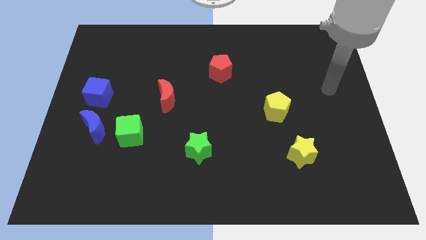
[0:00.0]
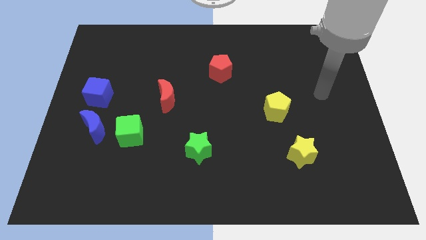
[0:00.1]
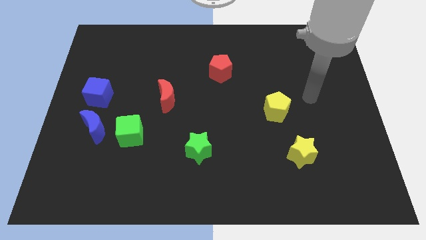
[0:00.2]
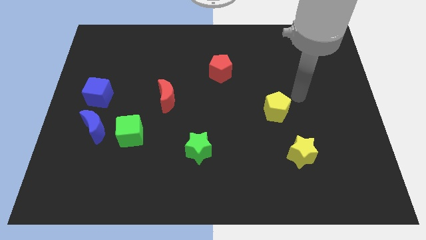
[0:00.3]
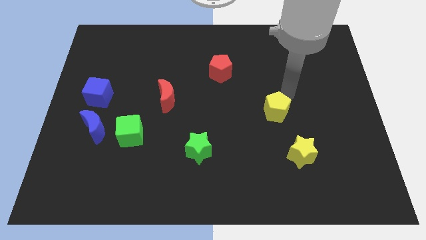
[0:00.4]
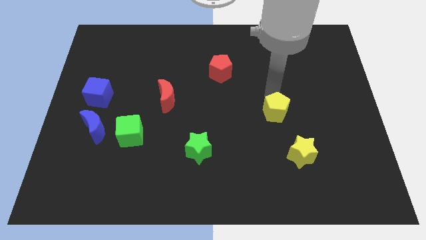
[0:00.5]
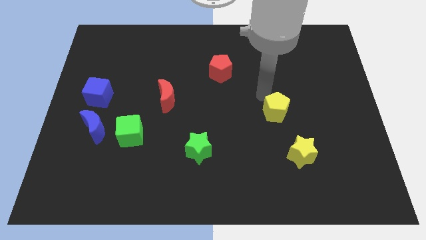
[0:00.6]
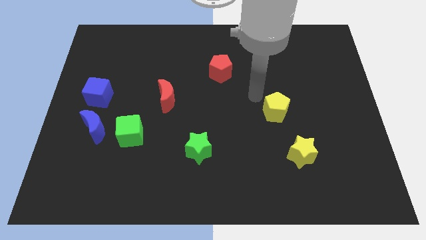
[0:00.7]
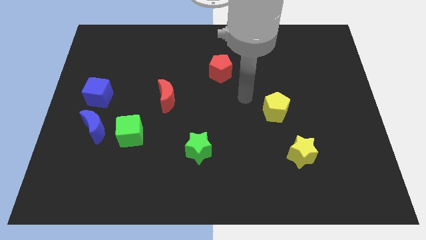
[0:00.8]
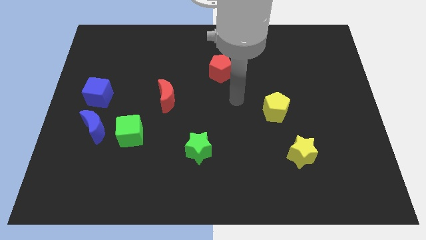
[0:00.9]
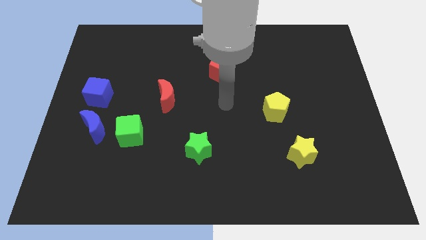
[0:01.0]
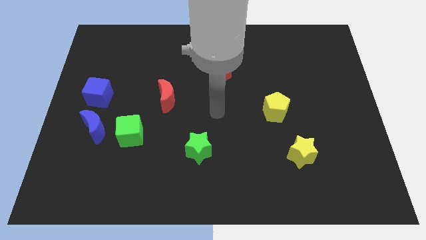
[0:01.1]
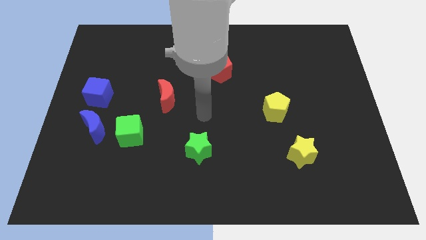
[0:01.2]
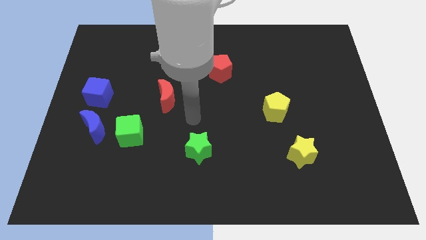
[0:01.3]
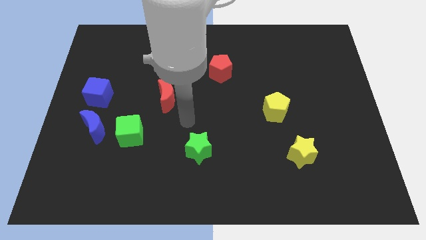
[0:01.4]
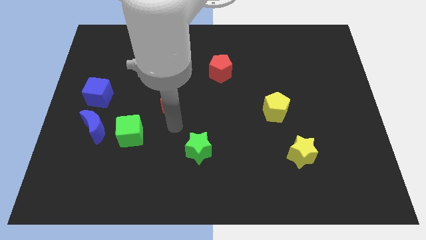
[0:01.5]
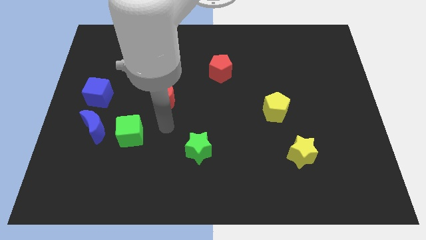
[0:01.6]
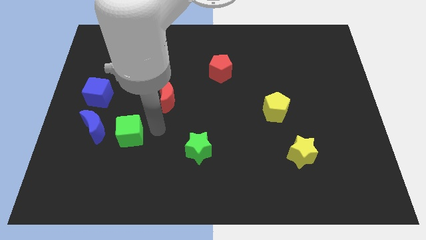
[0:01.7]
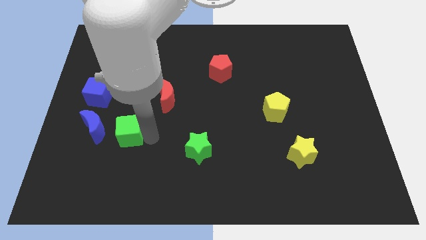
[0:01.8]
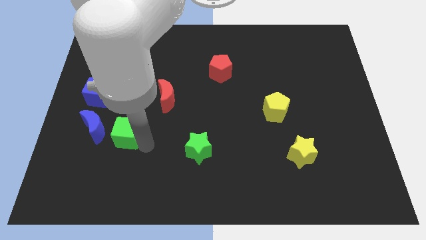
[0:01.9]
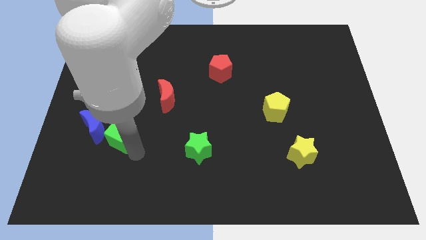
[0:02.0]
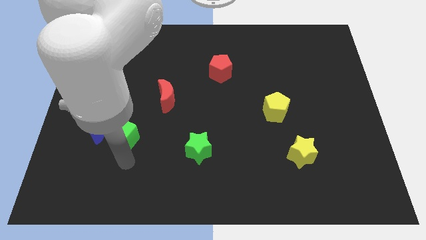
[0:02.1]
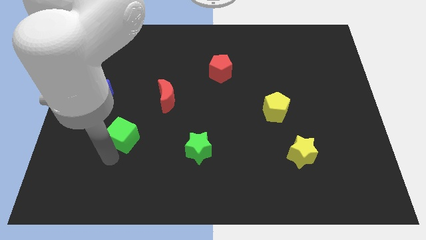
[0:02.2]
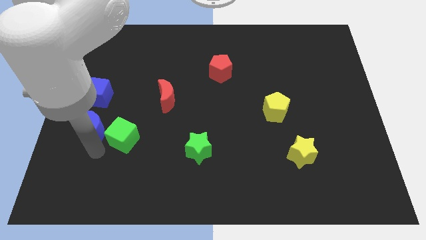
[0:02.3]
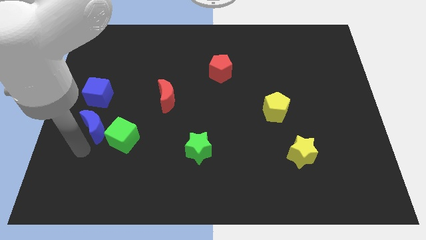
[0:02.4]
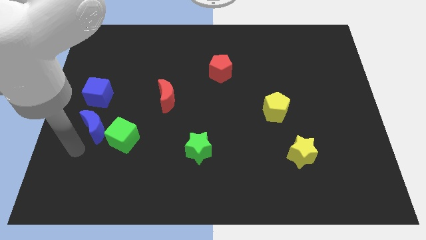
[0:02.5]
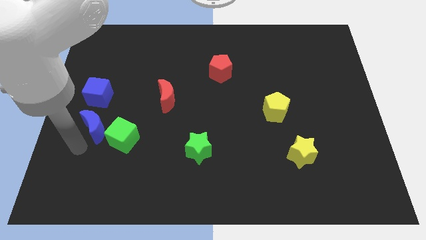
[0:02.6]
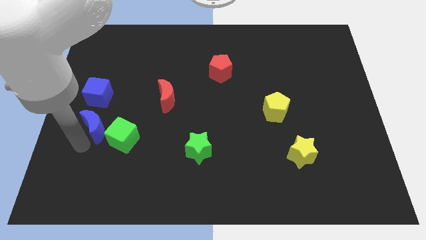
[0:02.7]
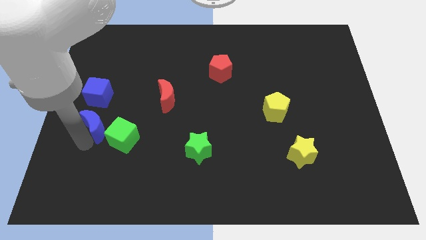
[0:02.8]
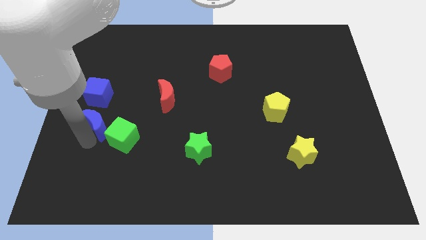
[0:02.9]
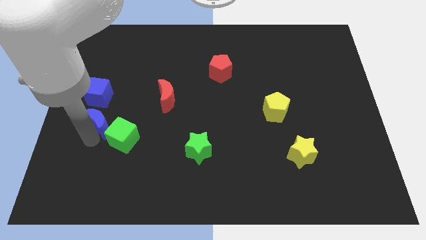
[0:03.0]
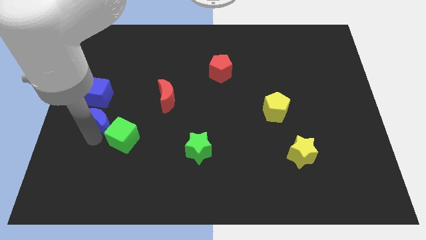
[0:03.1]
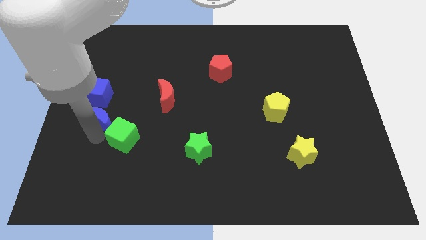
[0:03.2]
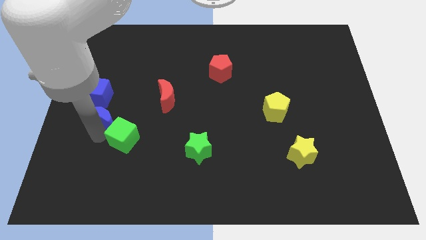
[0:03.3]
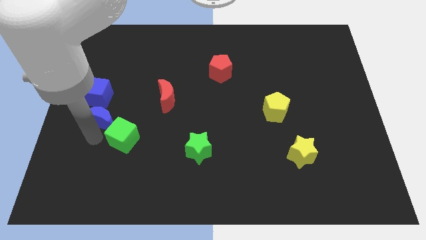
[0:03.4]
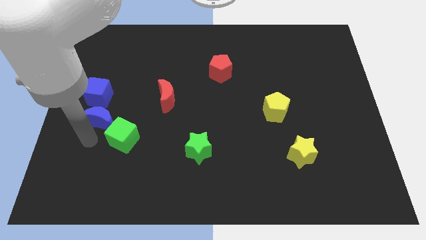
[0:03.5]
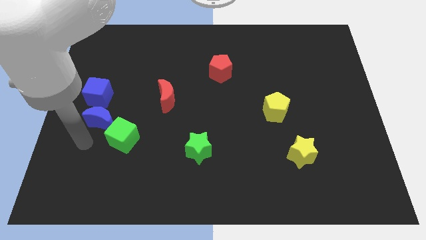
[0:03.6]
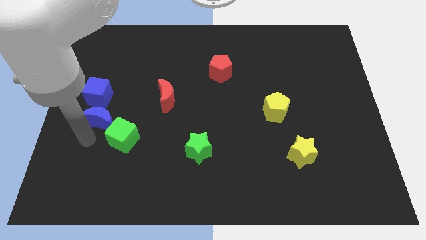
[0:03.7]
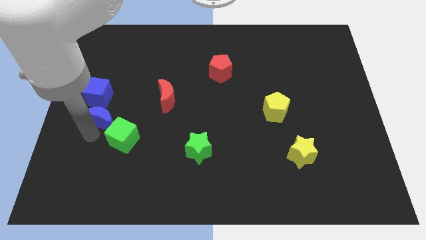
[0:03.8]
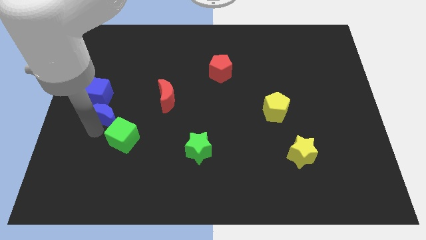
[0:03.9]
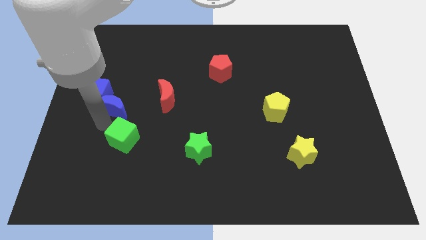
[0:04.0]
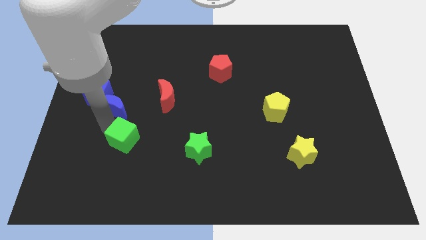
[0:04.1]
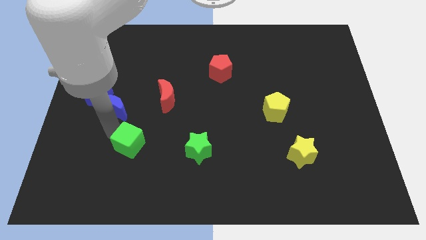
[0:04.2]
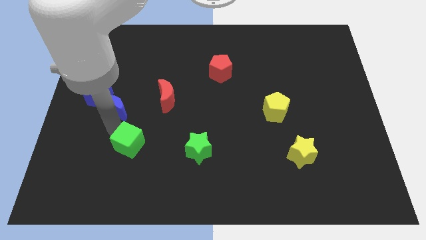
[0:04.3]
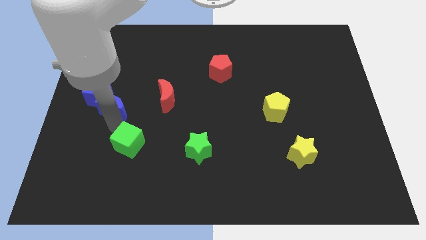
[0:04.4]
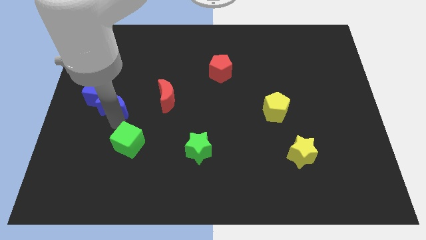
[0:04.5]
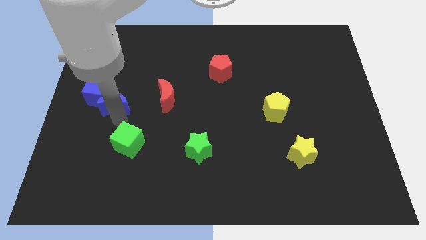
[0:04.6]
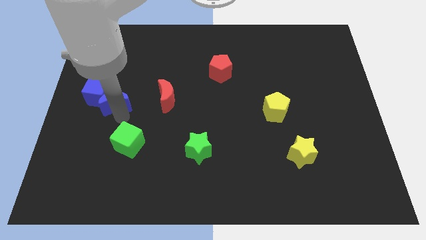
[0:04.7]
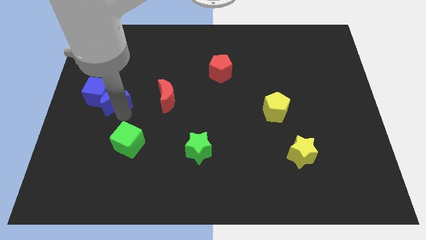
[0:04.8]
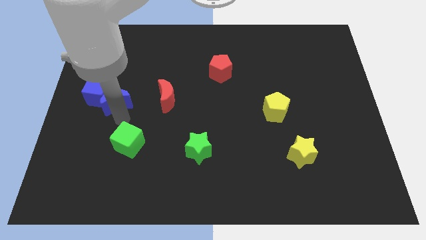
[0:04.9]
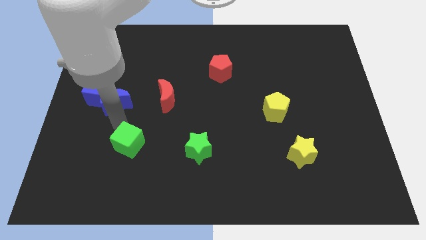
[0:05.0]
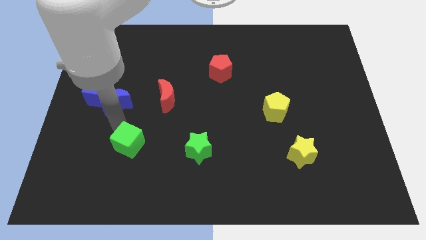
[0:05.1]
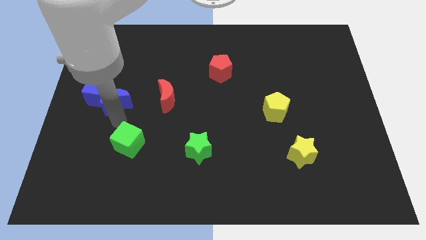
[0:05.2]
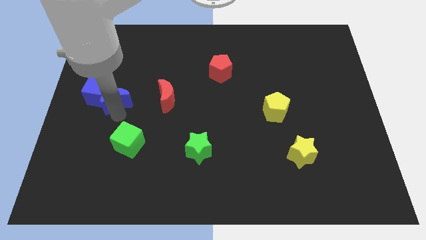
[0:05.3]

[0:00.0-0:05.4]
slightly slide the blue moon upwards

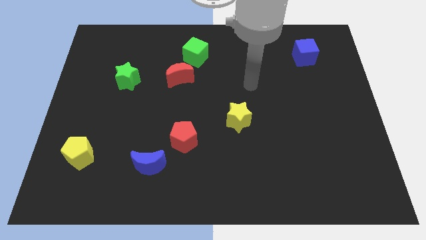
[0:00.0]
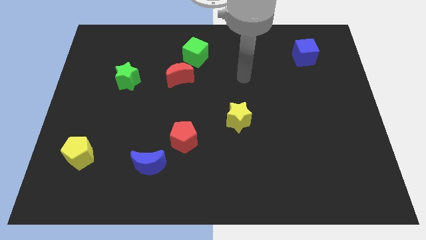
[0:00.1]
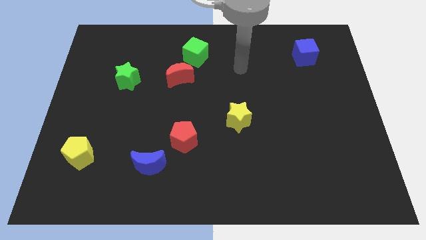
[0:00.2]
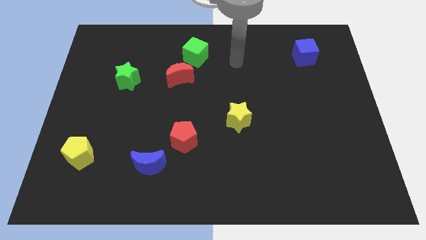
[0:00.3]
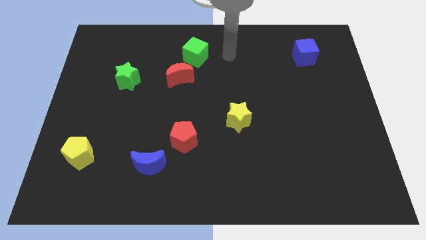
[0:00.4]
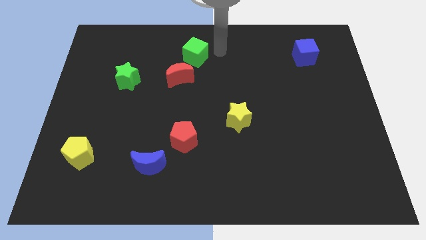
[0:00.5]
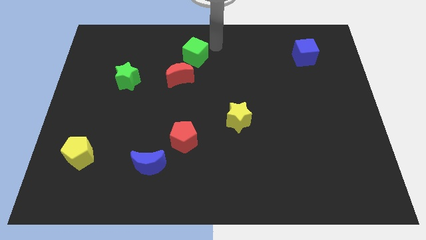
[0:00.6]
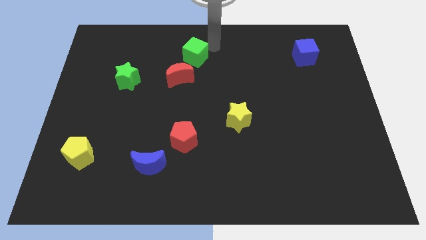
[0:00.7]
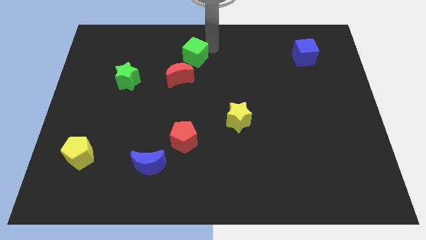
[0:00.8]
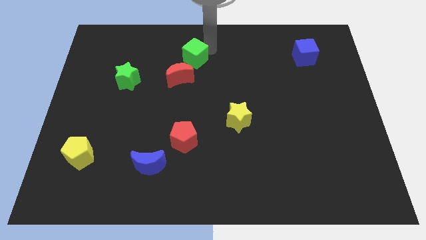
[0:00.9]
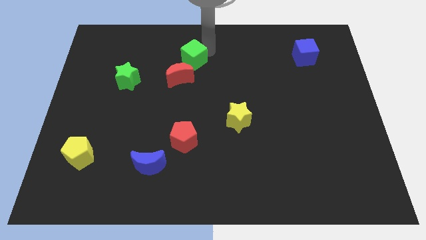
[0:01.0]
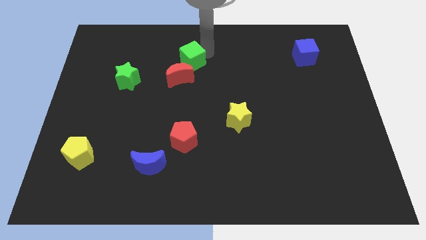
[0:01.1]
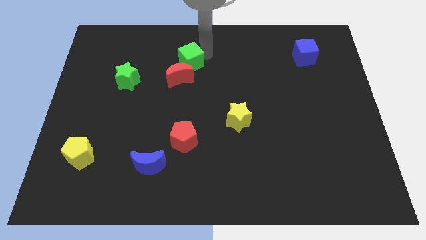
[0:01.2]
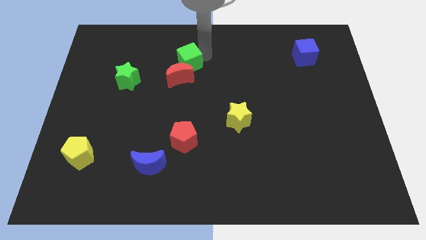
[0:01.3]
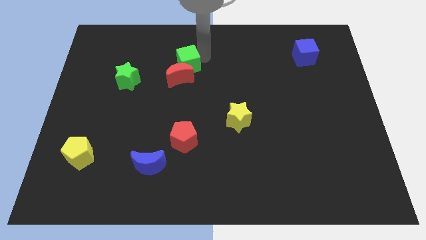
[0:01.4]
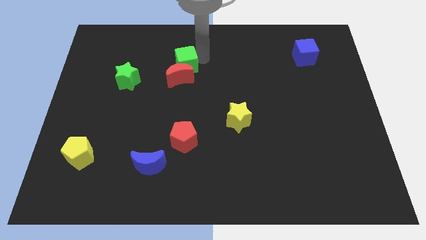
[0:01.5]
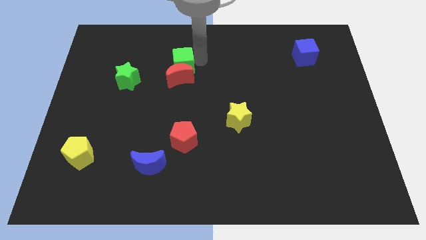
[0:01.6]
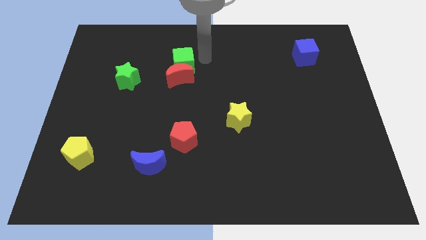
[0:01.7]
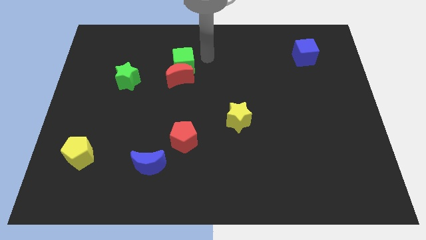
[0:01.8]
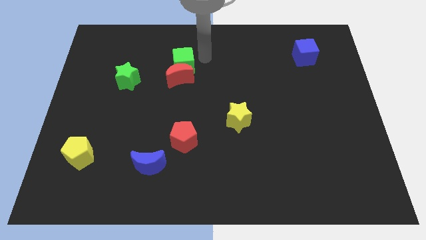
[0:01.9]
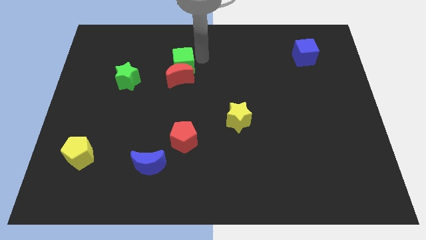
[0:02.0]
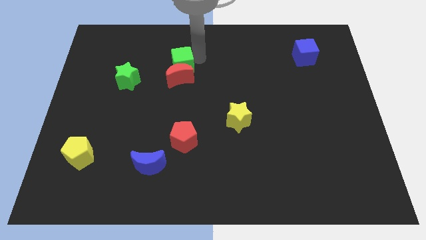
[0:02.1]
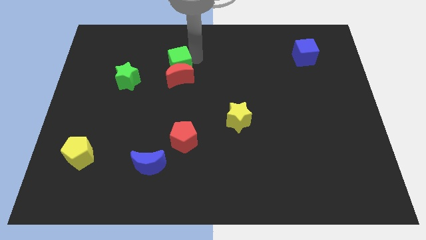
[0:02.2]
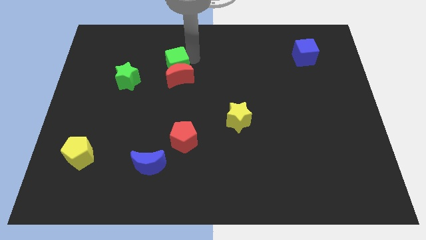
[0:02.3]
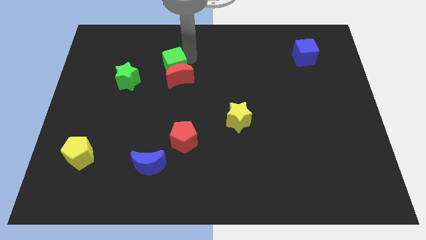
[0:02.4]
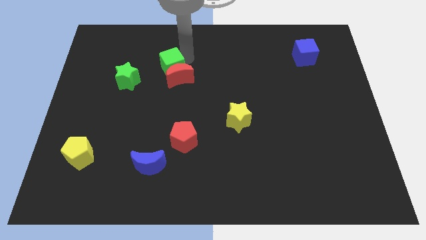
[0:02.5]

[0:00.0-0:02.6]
slide the green cube downwards and to the left a little bit

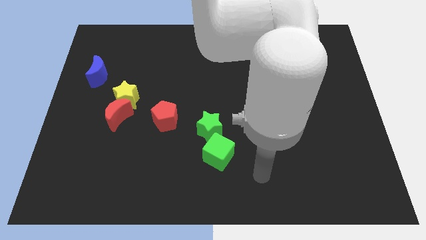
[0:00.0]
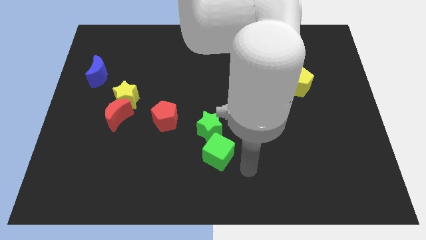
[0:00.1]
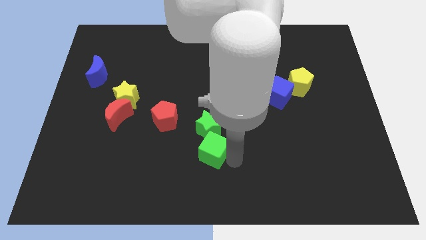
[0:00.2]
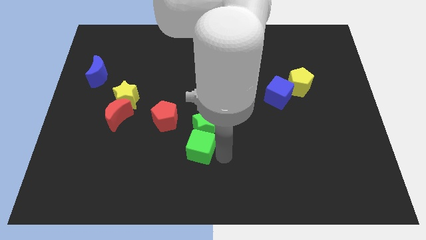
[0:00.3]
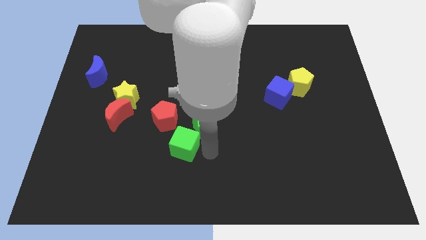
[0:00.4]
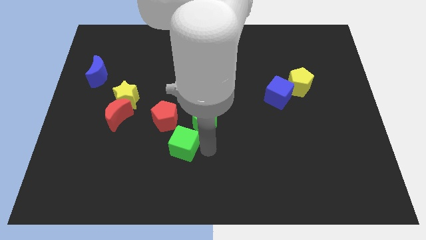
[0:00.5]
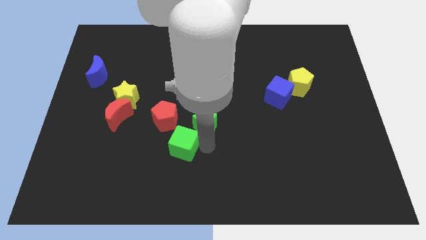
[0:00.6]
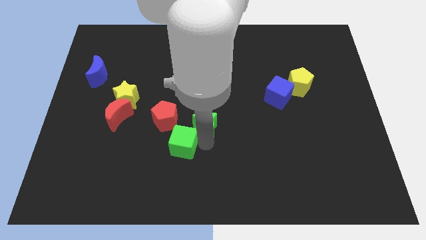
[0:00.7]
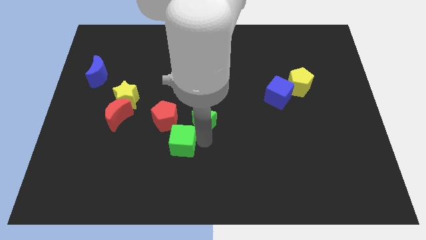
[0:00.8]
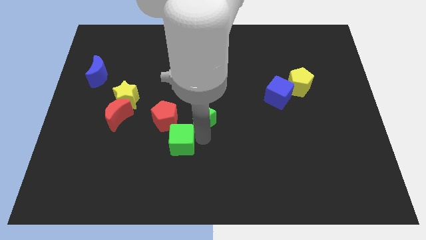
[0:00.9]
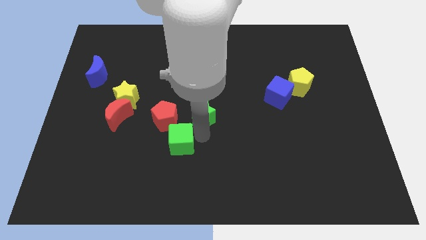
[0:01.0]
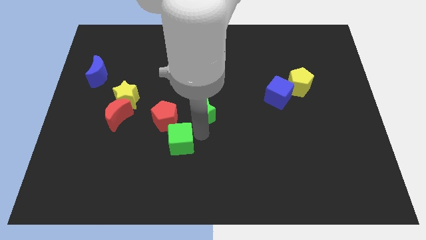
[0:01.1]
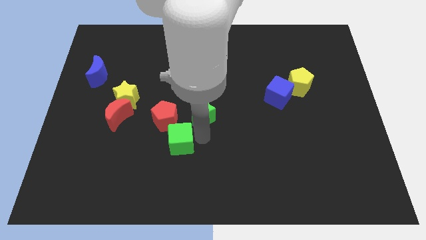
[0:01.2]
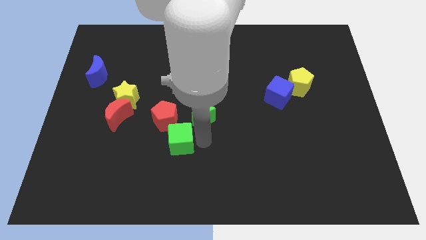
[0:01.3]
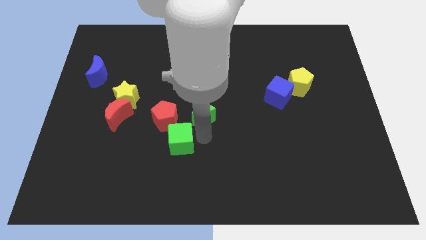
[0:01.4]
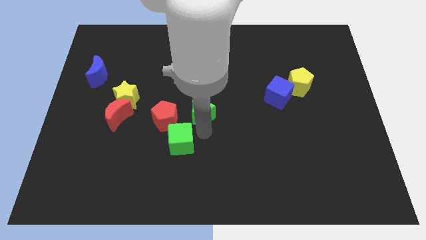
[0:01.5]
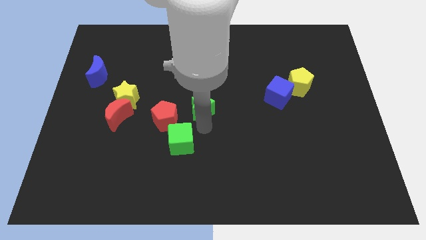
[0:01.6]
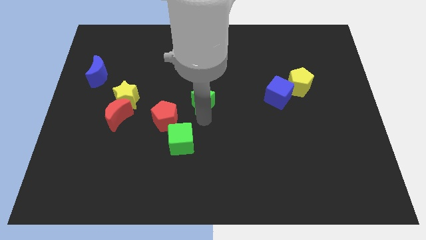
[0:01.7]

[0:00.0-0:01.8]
push the green star upwards a little
